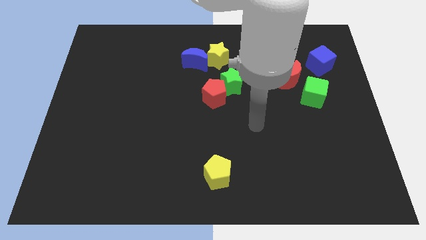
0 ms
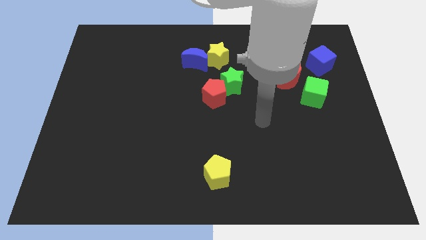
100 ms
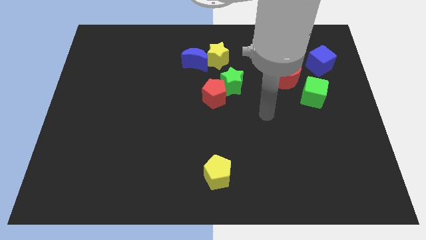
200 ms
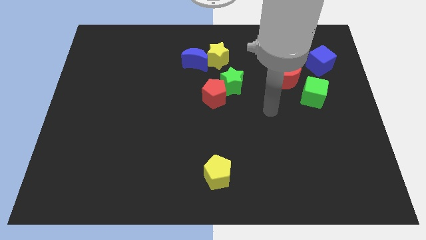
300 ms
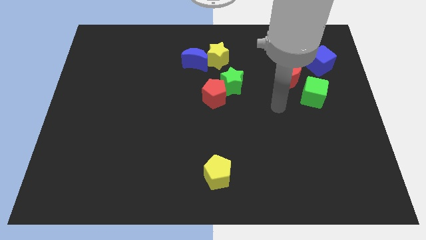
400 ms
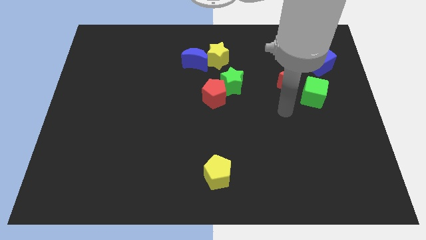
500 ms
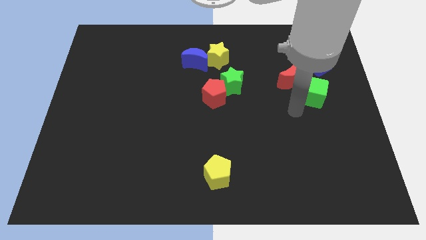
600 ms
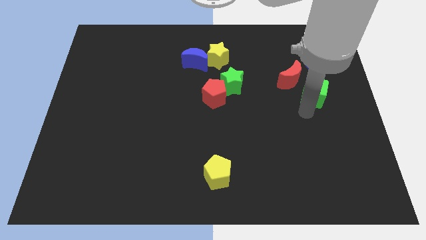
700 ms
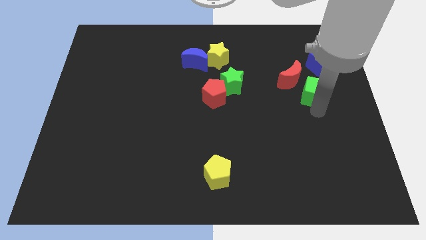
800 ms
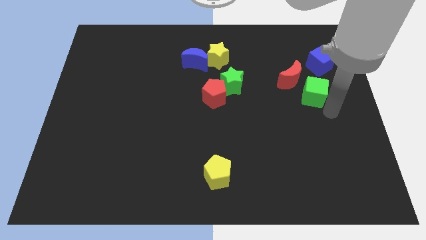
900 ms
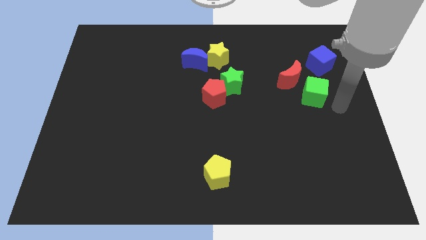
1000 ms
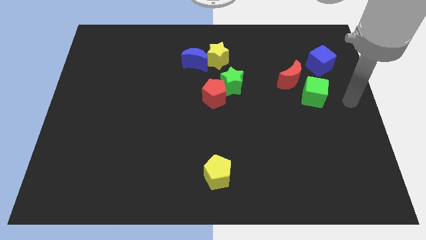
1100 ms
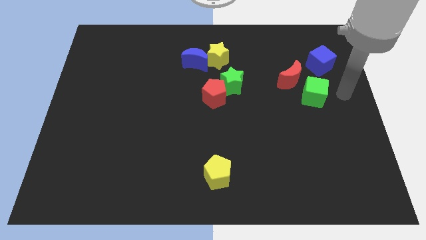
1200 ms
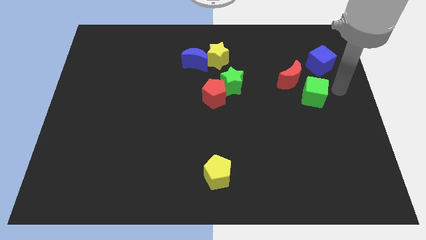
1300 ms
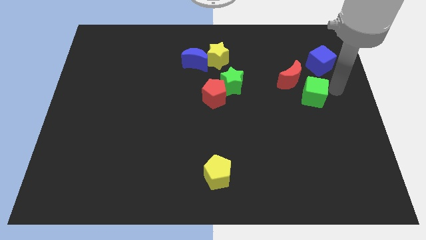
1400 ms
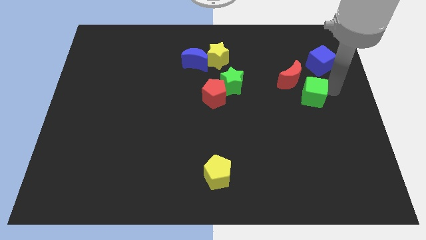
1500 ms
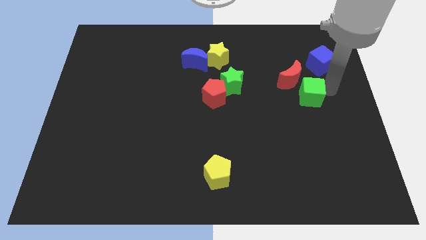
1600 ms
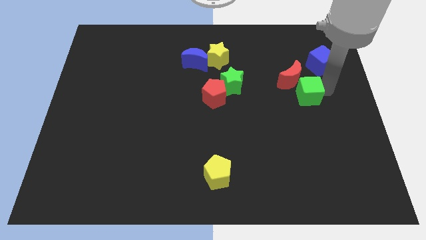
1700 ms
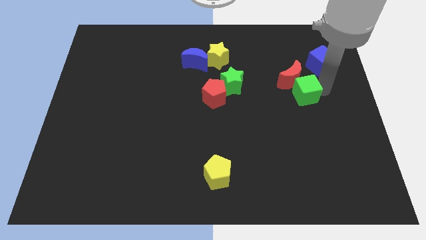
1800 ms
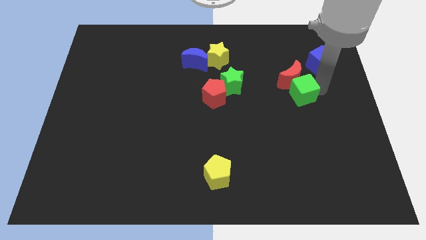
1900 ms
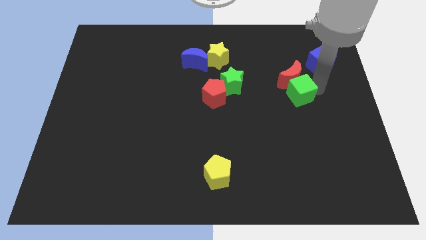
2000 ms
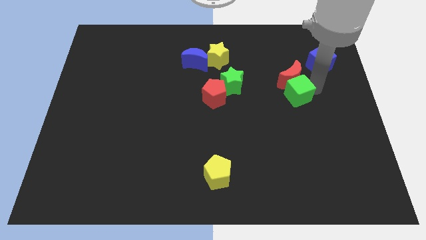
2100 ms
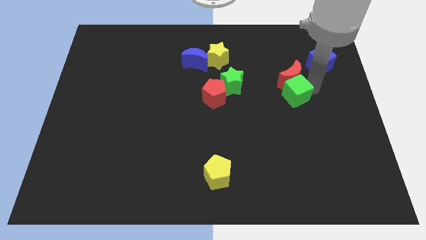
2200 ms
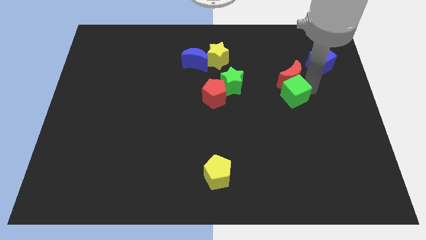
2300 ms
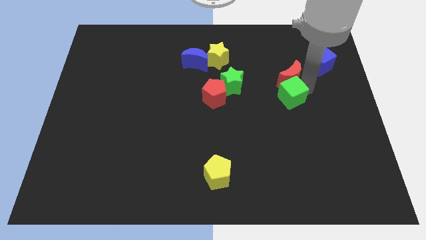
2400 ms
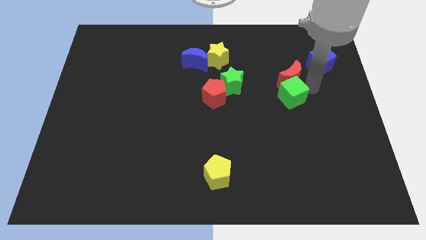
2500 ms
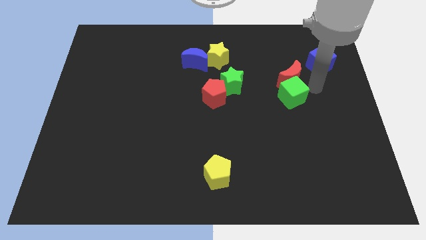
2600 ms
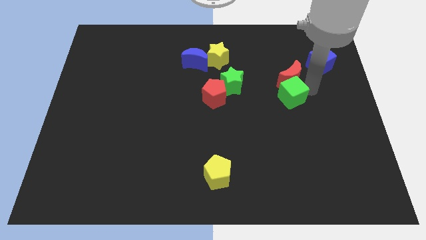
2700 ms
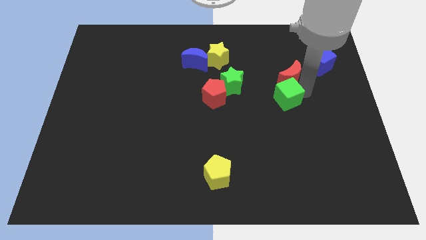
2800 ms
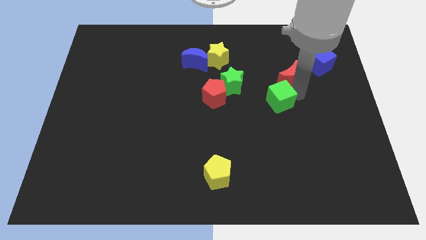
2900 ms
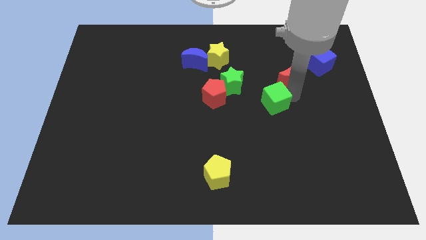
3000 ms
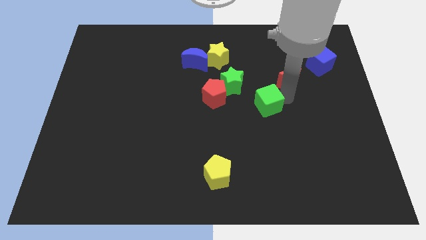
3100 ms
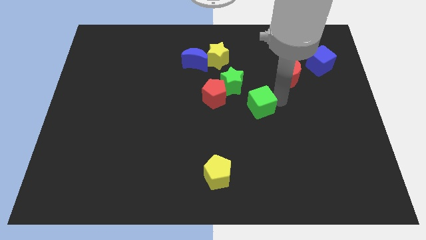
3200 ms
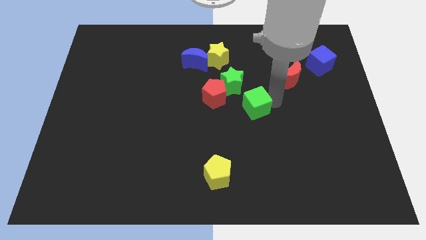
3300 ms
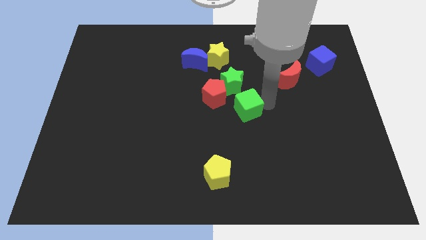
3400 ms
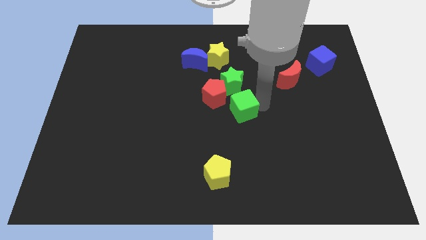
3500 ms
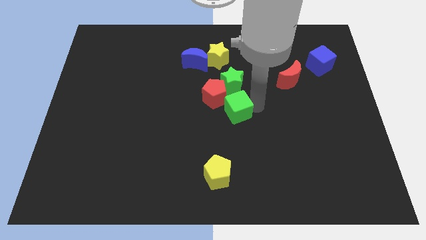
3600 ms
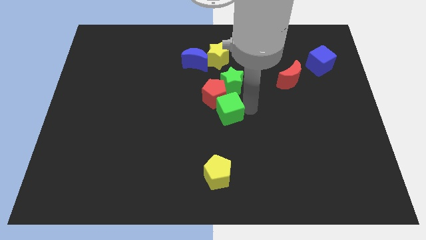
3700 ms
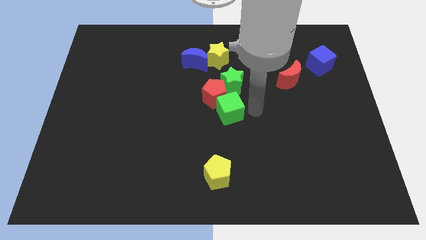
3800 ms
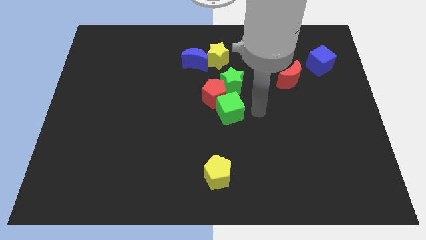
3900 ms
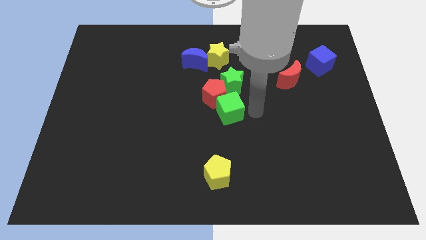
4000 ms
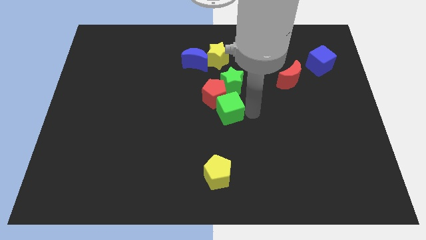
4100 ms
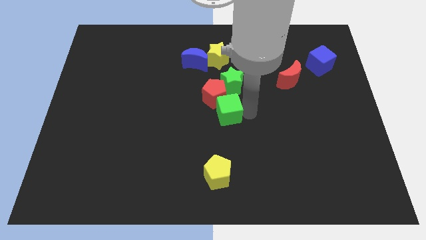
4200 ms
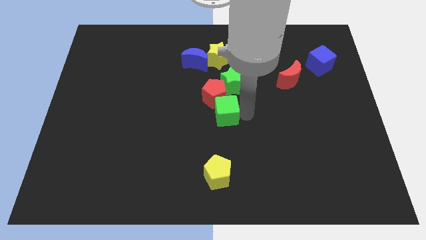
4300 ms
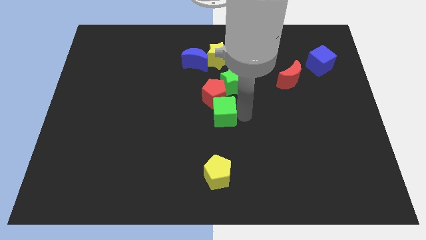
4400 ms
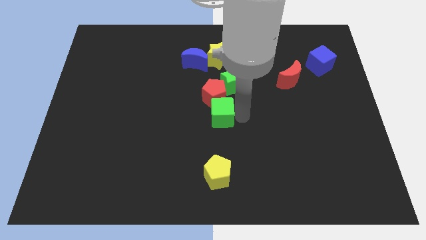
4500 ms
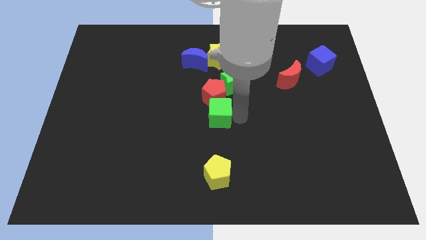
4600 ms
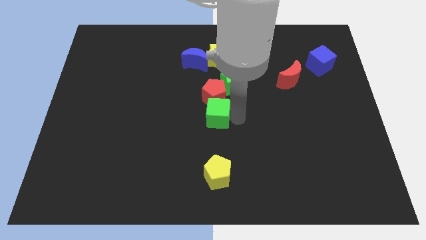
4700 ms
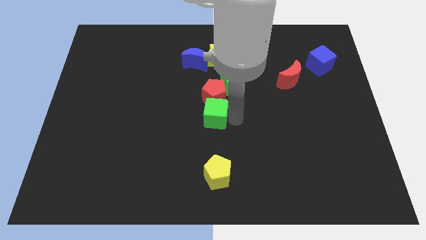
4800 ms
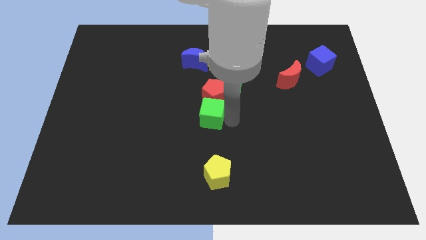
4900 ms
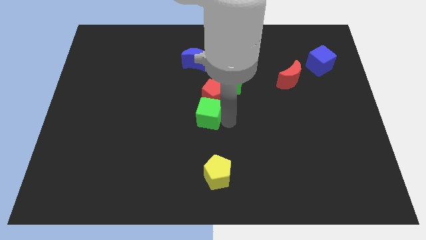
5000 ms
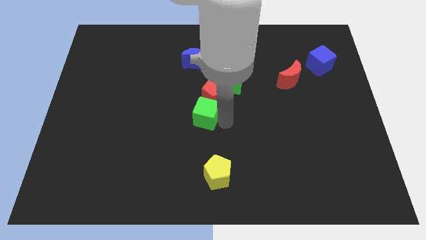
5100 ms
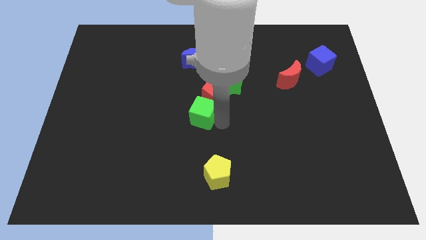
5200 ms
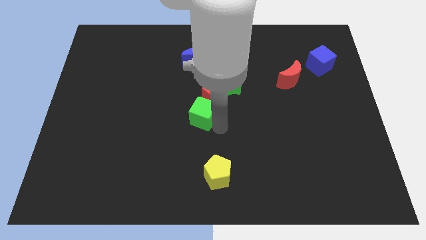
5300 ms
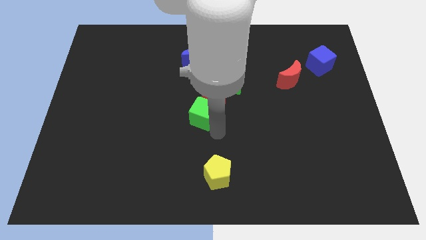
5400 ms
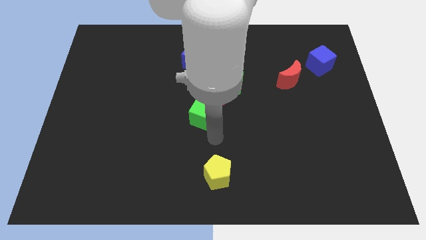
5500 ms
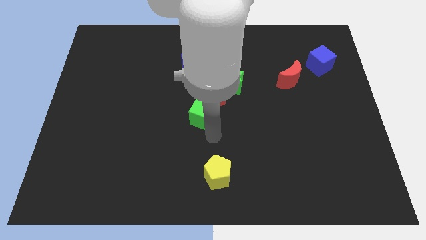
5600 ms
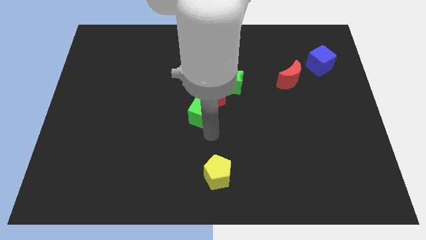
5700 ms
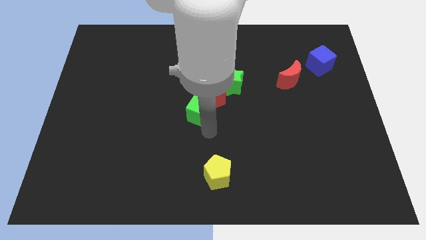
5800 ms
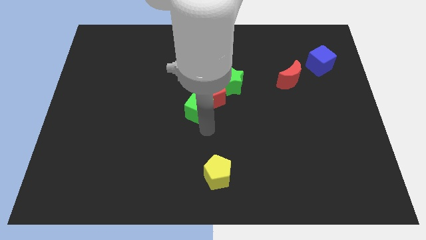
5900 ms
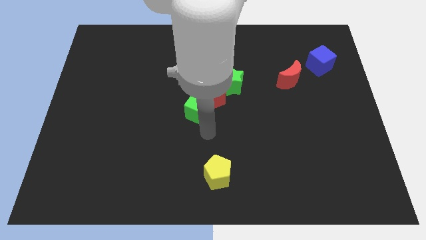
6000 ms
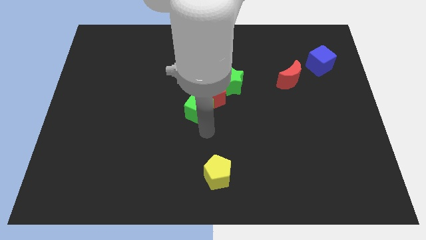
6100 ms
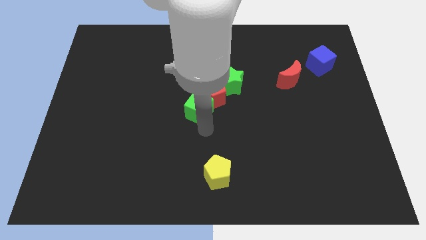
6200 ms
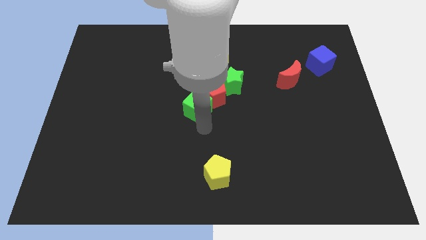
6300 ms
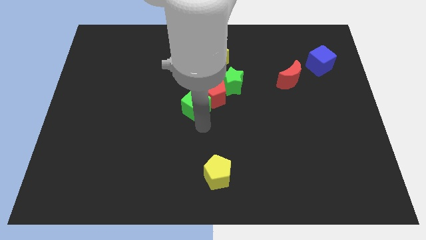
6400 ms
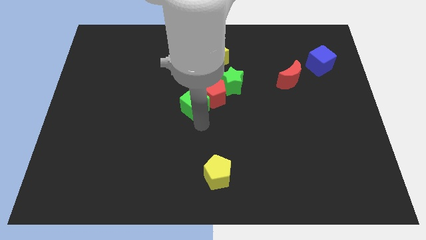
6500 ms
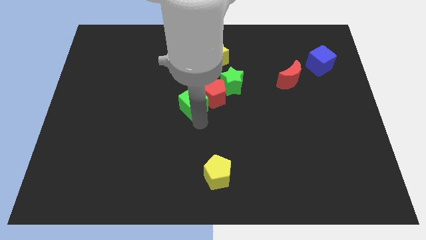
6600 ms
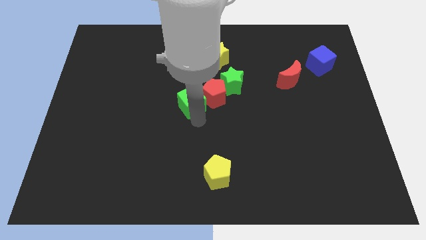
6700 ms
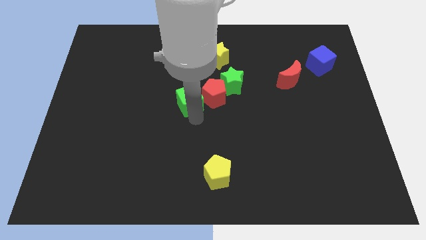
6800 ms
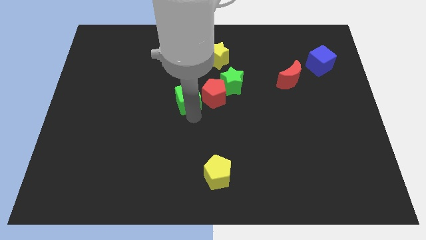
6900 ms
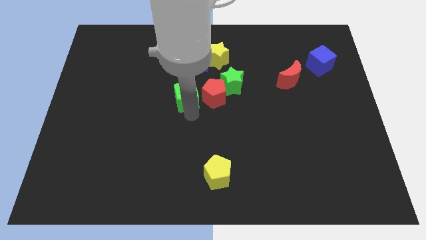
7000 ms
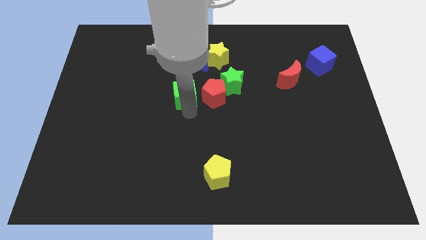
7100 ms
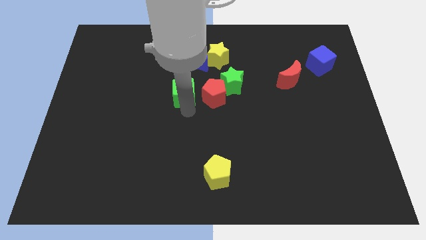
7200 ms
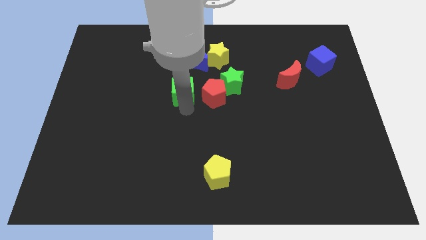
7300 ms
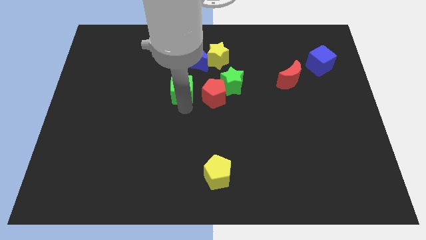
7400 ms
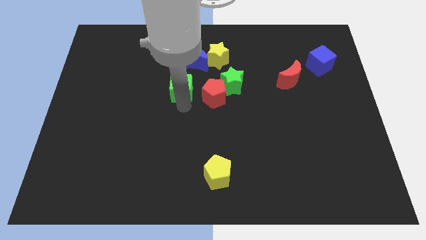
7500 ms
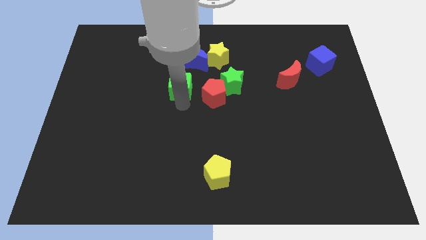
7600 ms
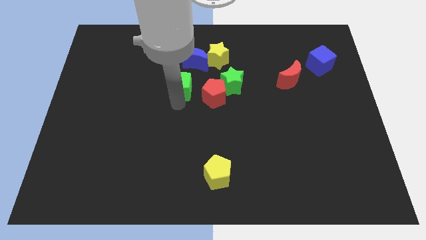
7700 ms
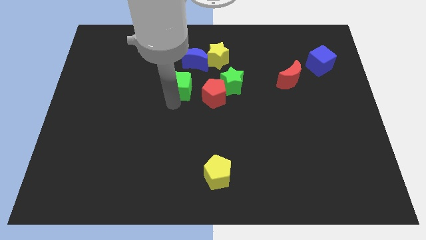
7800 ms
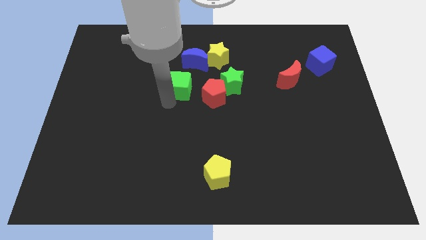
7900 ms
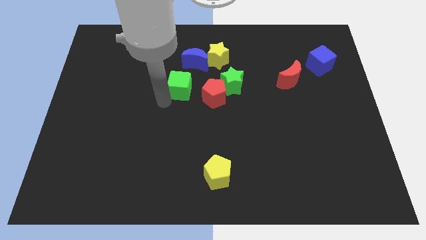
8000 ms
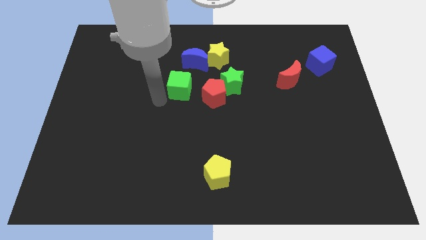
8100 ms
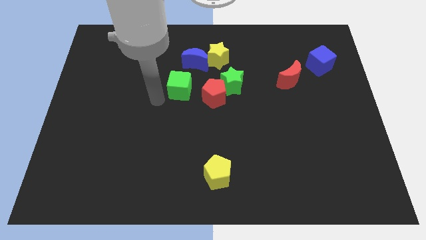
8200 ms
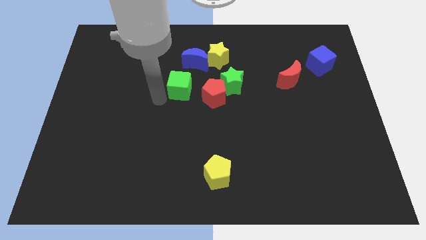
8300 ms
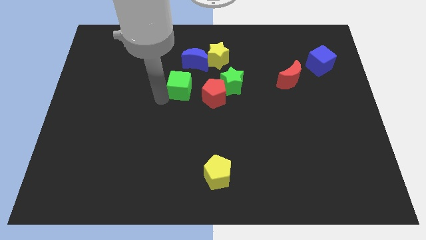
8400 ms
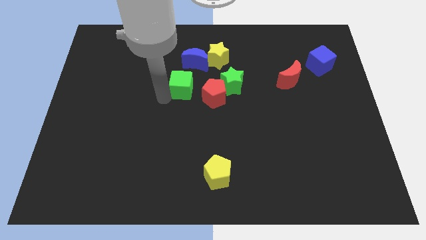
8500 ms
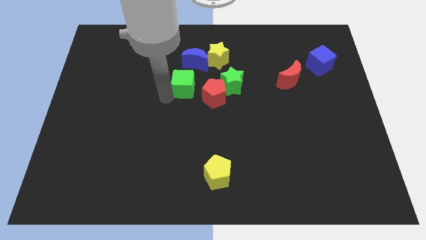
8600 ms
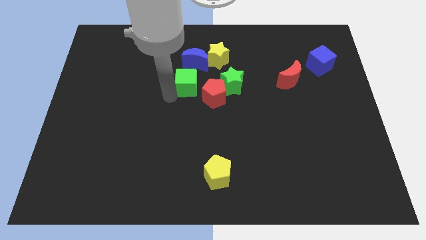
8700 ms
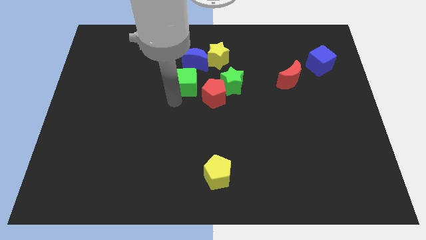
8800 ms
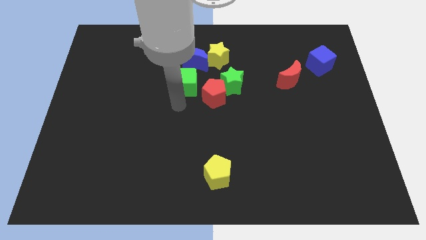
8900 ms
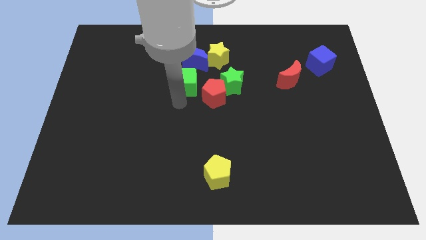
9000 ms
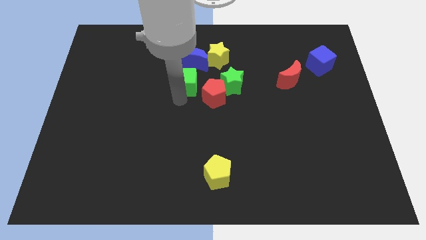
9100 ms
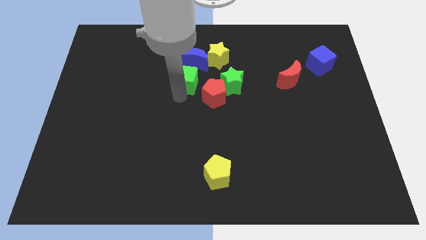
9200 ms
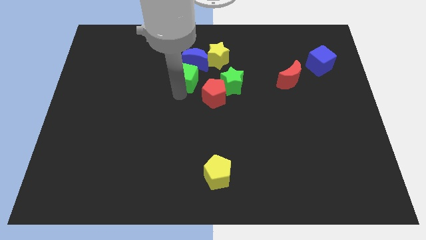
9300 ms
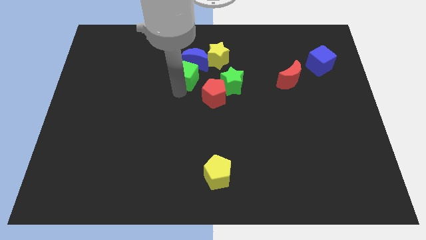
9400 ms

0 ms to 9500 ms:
move the green cube close to the blue moon
